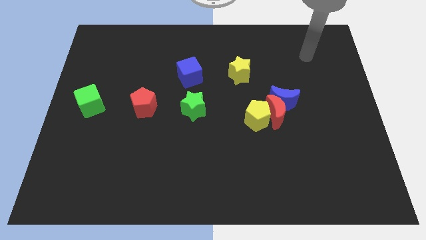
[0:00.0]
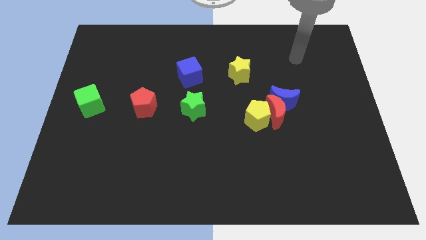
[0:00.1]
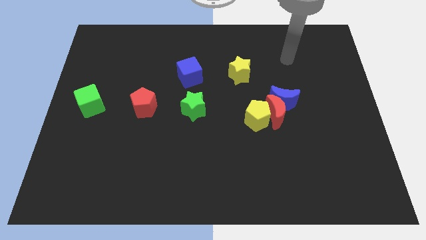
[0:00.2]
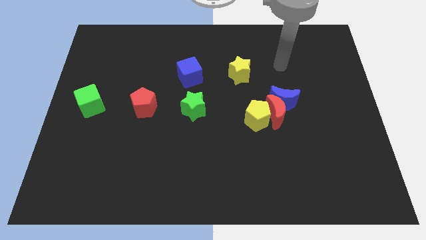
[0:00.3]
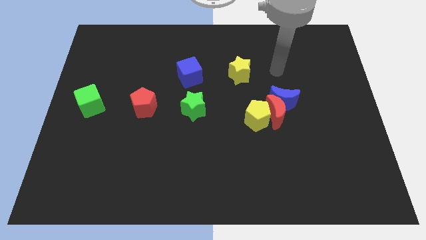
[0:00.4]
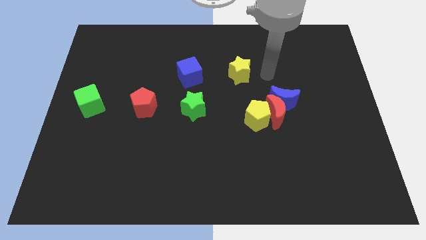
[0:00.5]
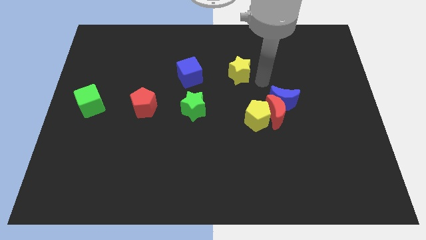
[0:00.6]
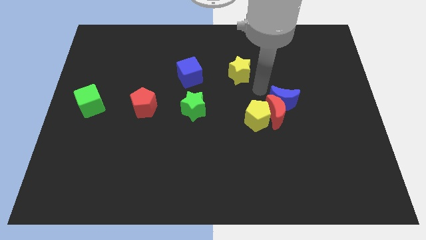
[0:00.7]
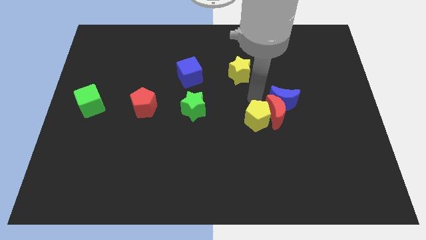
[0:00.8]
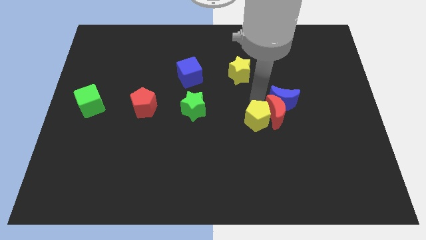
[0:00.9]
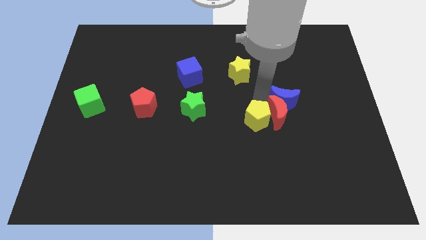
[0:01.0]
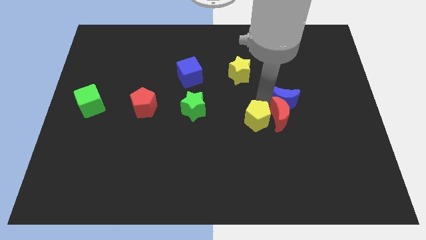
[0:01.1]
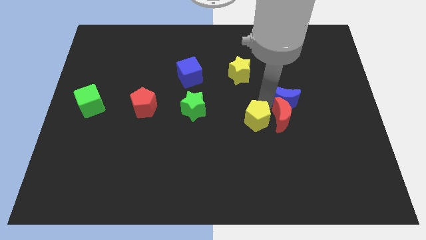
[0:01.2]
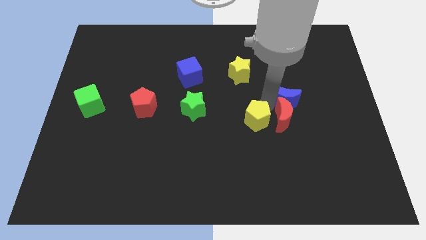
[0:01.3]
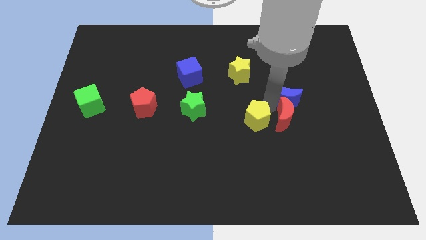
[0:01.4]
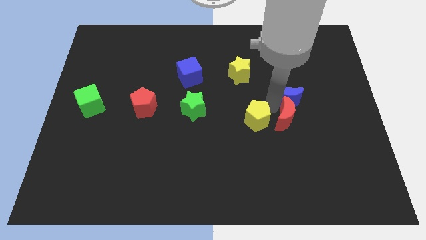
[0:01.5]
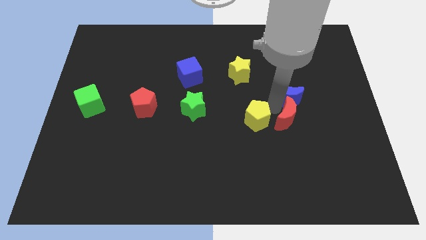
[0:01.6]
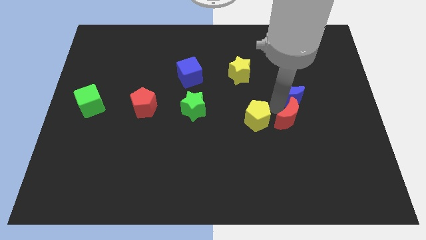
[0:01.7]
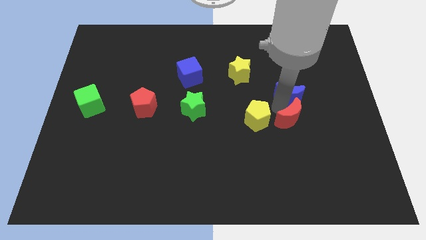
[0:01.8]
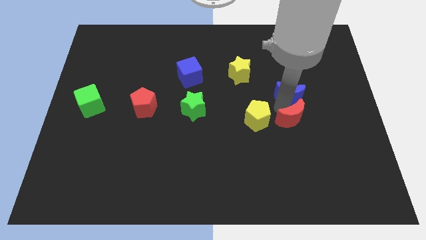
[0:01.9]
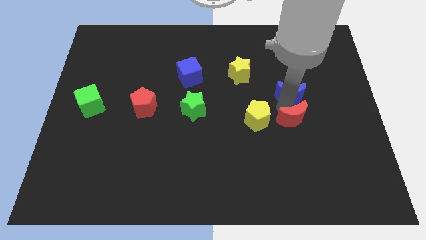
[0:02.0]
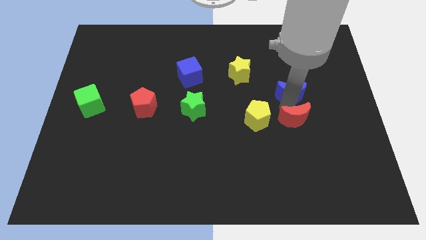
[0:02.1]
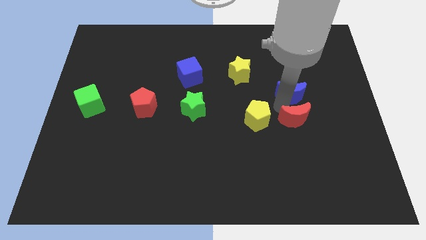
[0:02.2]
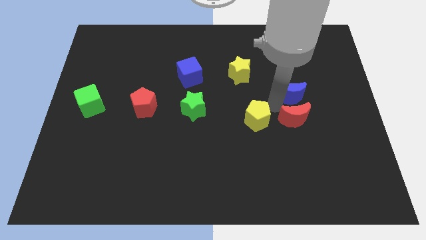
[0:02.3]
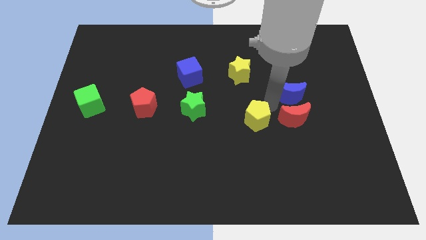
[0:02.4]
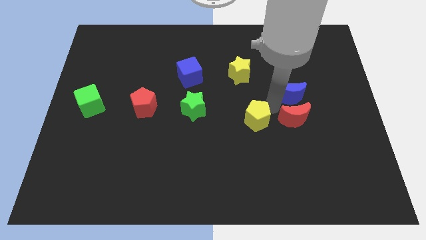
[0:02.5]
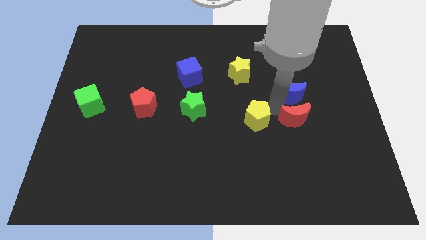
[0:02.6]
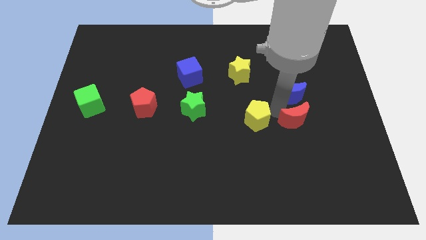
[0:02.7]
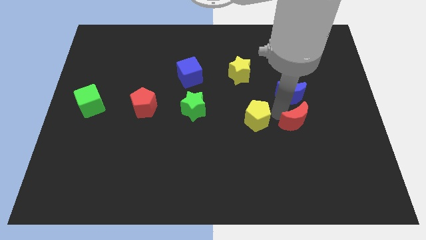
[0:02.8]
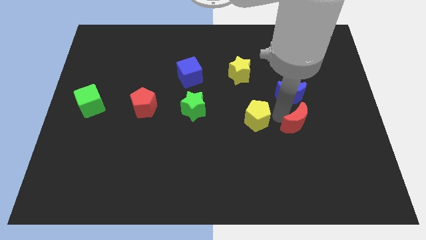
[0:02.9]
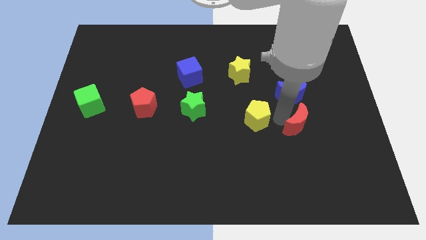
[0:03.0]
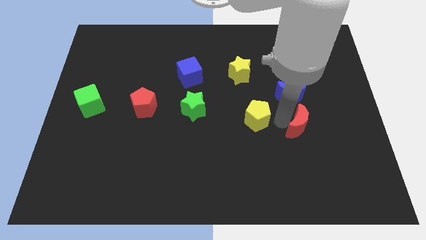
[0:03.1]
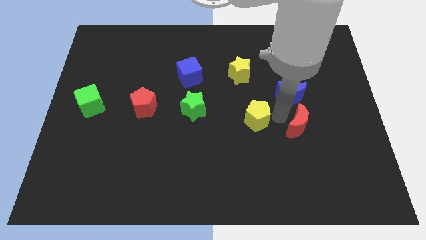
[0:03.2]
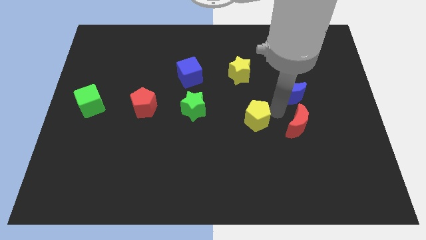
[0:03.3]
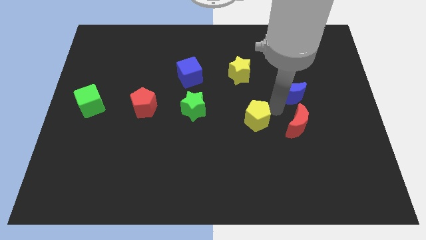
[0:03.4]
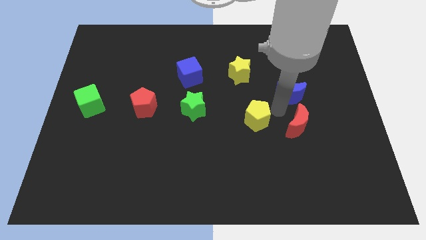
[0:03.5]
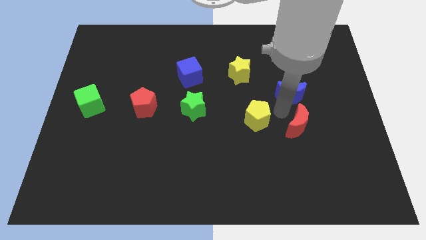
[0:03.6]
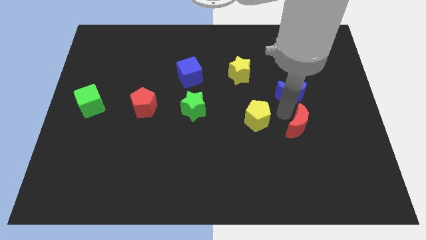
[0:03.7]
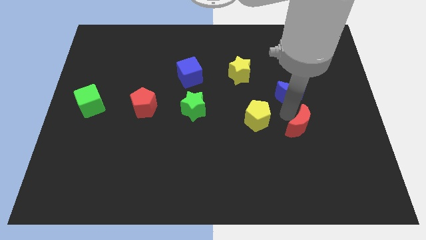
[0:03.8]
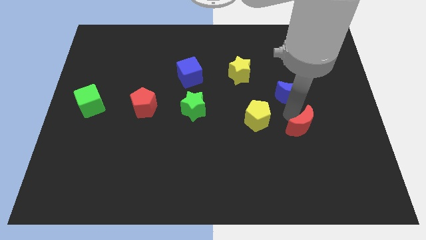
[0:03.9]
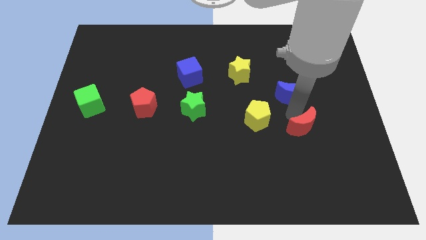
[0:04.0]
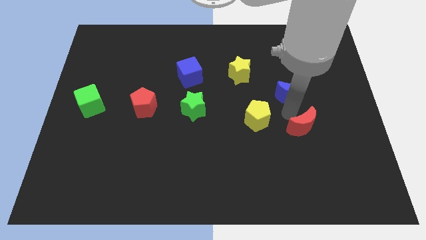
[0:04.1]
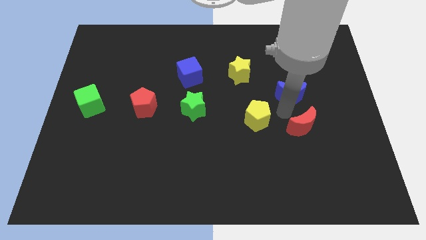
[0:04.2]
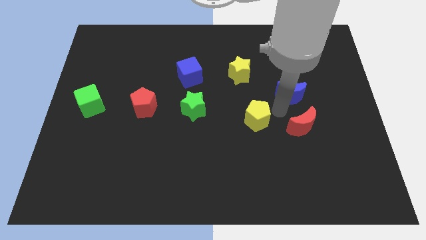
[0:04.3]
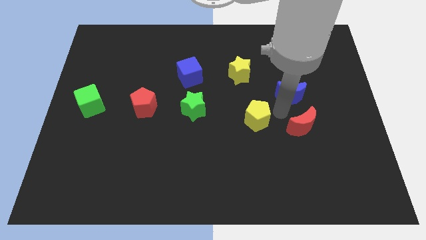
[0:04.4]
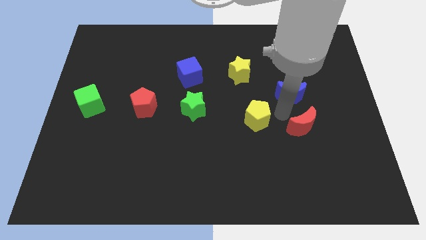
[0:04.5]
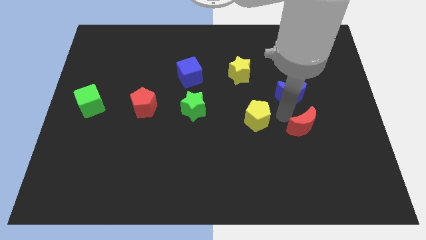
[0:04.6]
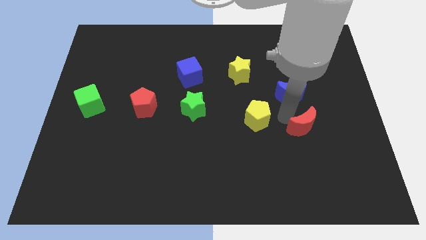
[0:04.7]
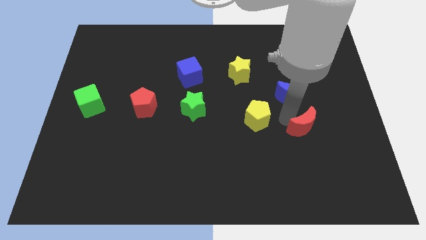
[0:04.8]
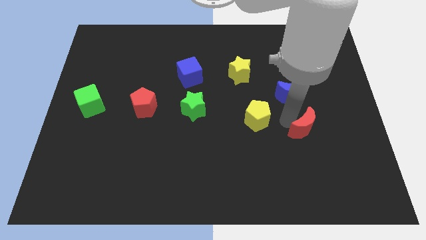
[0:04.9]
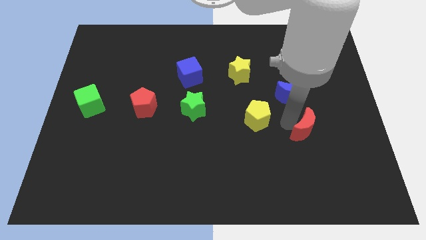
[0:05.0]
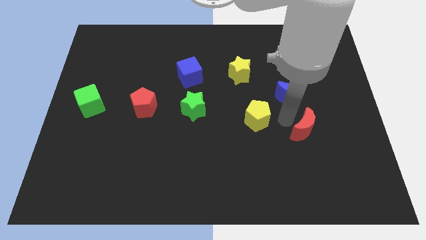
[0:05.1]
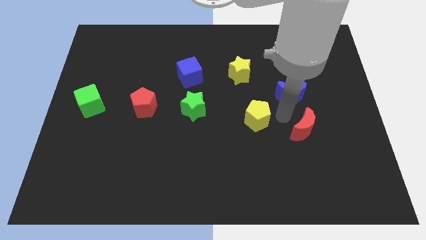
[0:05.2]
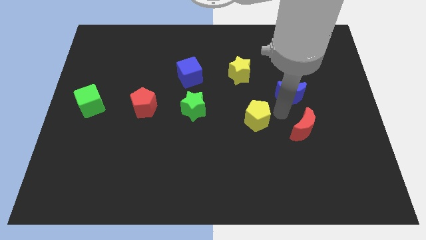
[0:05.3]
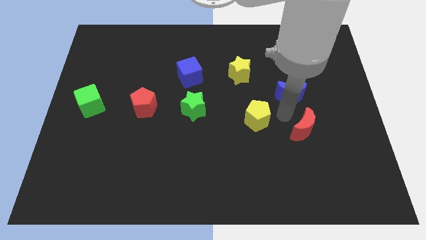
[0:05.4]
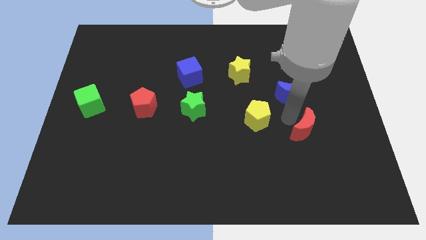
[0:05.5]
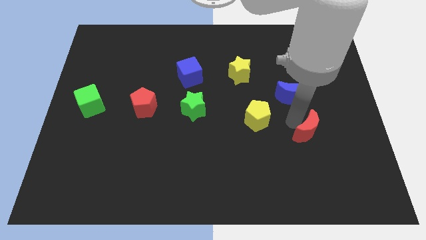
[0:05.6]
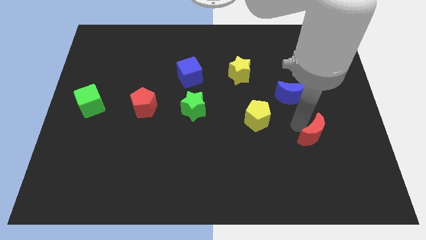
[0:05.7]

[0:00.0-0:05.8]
separate the red moon from the blue moon and yellow pentagon

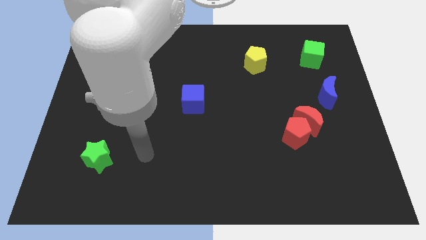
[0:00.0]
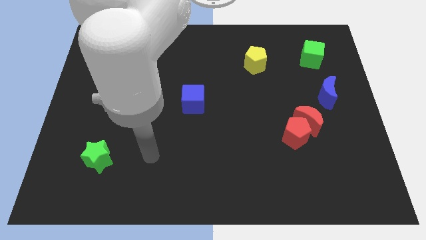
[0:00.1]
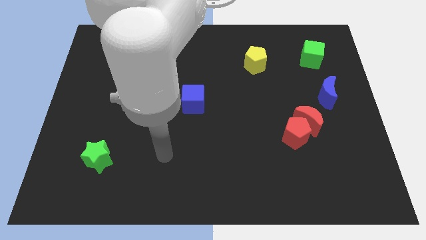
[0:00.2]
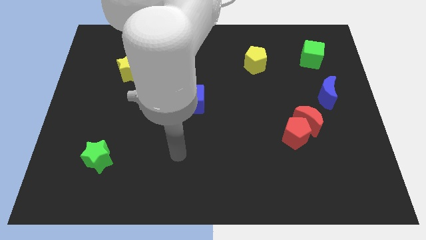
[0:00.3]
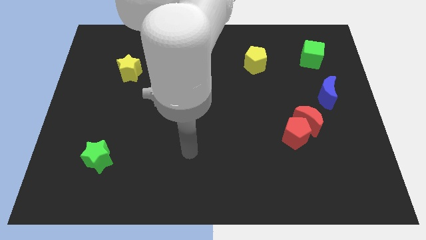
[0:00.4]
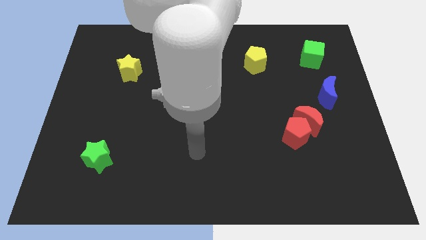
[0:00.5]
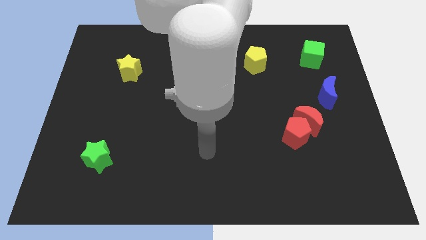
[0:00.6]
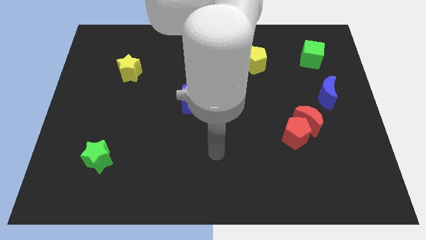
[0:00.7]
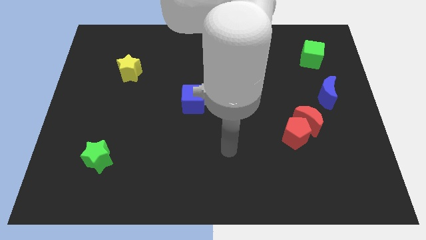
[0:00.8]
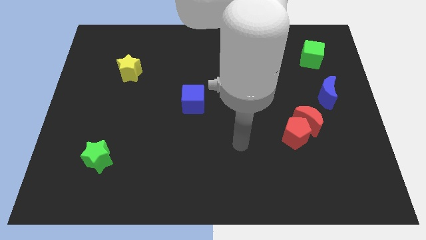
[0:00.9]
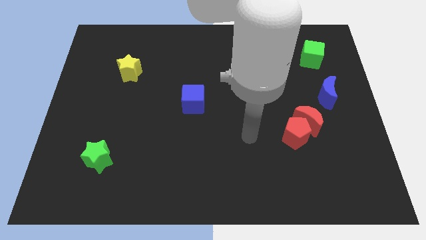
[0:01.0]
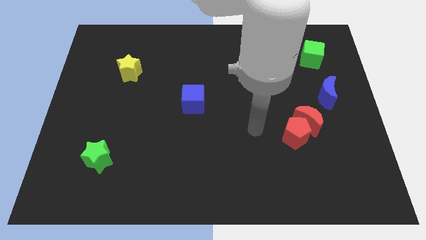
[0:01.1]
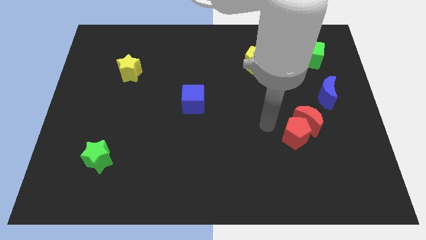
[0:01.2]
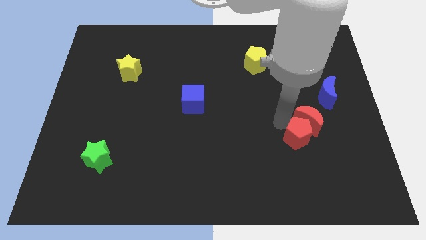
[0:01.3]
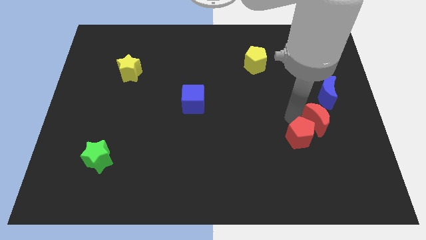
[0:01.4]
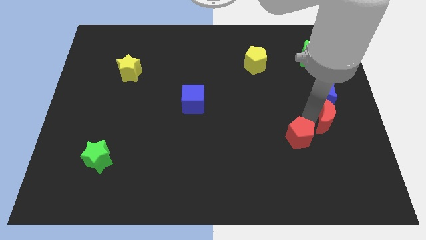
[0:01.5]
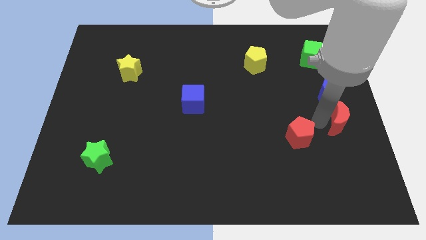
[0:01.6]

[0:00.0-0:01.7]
separate the red pentagon from the red moon

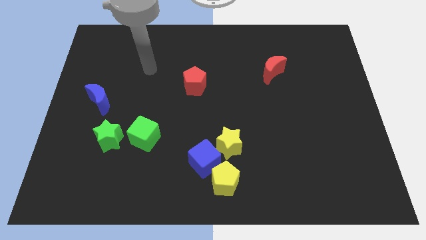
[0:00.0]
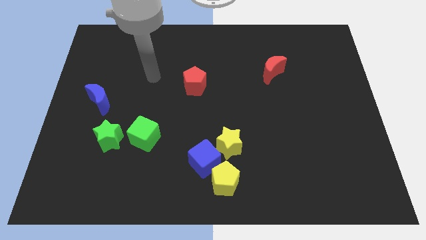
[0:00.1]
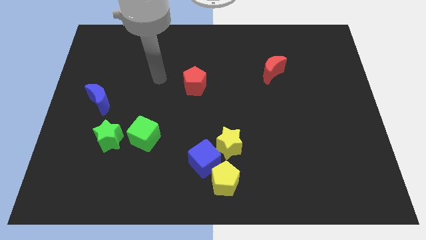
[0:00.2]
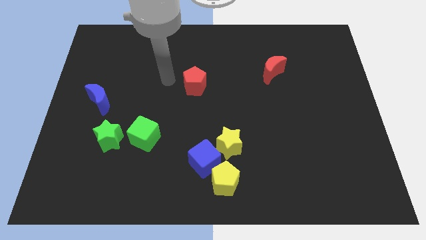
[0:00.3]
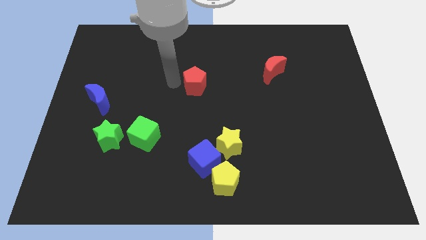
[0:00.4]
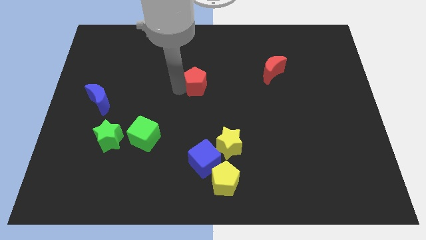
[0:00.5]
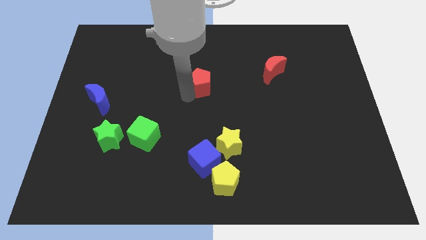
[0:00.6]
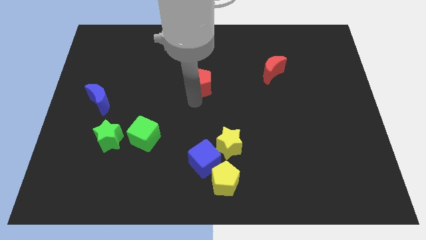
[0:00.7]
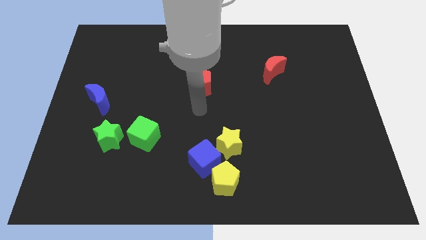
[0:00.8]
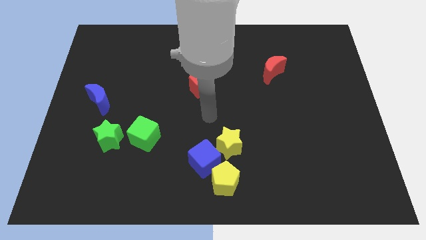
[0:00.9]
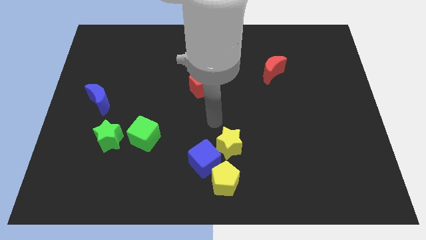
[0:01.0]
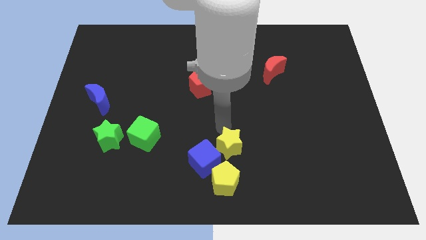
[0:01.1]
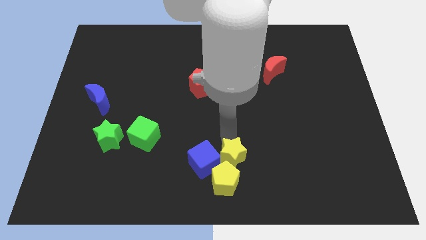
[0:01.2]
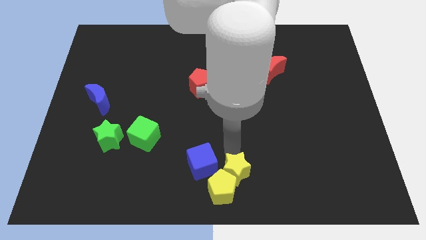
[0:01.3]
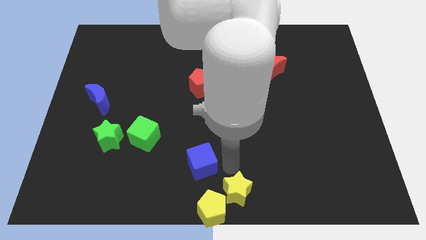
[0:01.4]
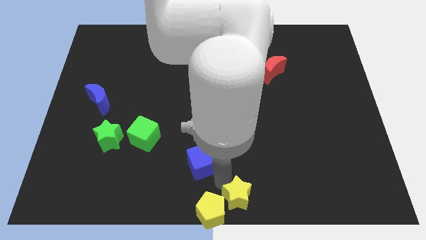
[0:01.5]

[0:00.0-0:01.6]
pull the blue cube apart from the yellow star and yellow pentagon

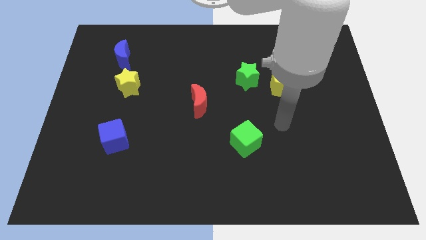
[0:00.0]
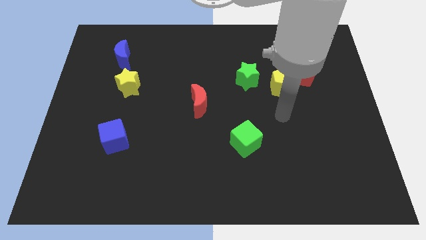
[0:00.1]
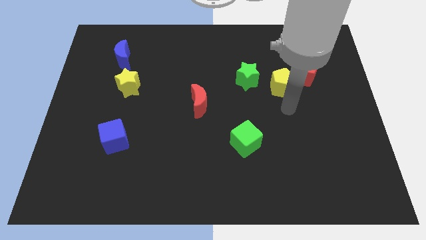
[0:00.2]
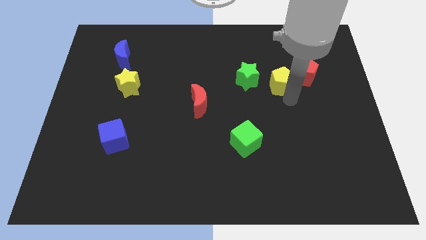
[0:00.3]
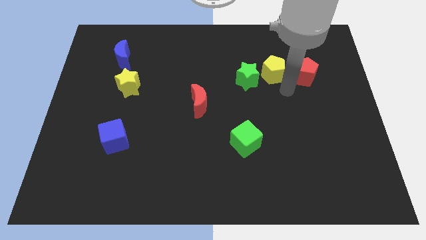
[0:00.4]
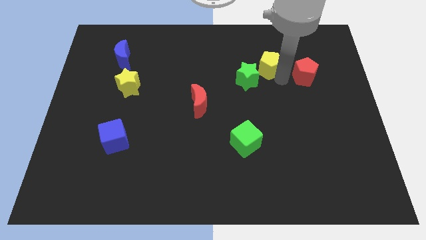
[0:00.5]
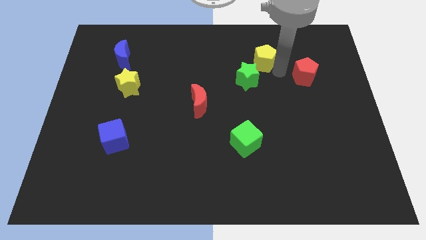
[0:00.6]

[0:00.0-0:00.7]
pull the red pentagon apart from the yellow pentagon
